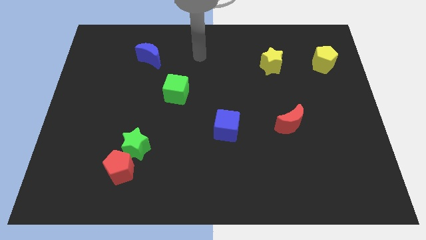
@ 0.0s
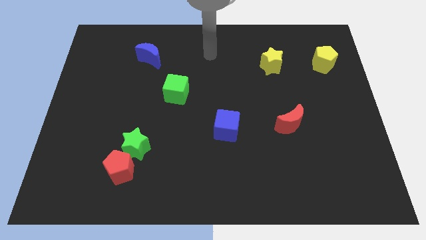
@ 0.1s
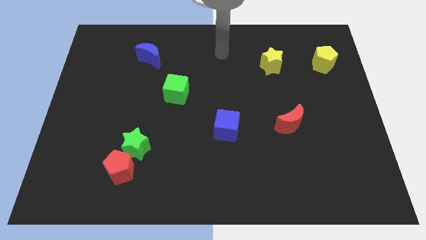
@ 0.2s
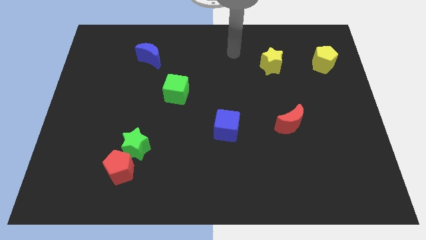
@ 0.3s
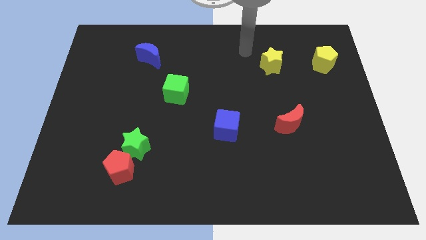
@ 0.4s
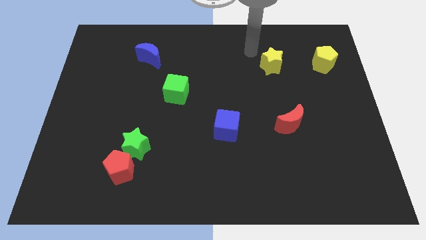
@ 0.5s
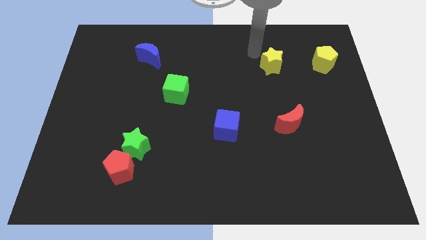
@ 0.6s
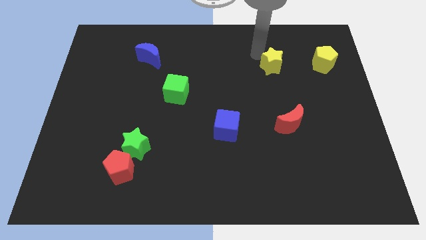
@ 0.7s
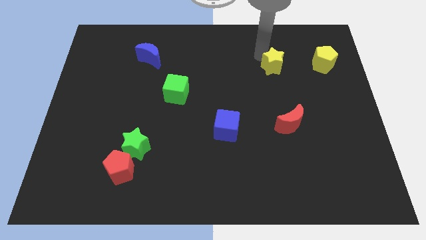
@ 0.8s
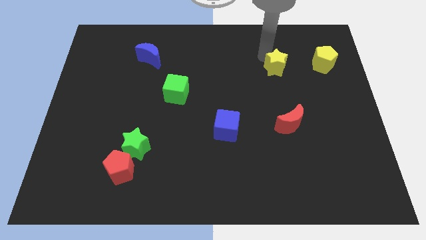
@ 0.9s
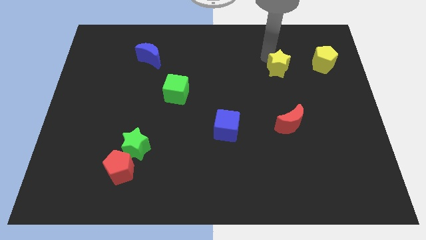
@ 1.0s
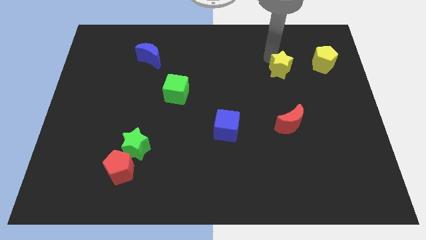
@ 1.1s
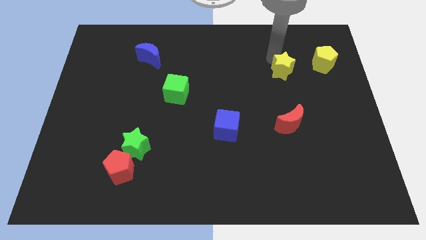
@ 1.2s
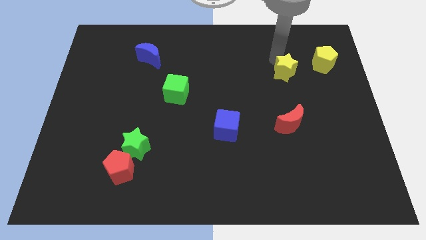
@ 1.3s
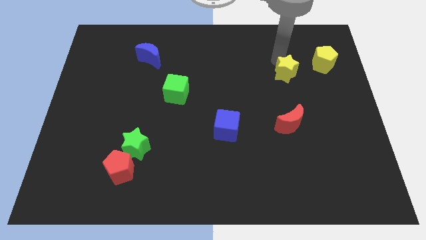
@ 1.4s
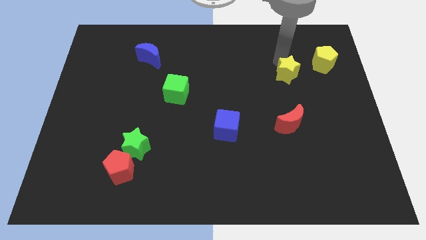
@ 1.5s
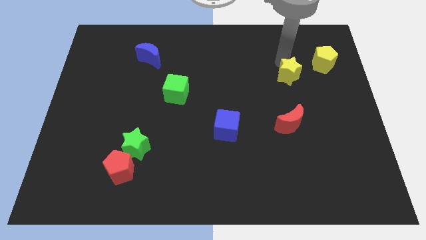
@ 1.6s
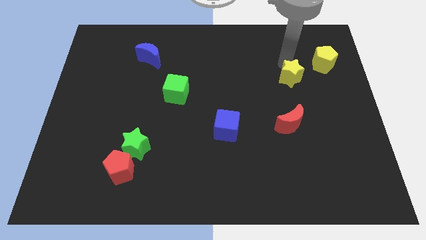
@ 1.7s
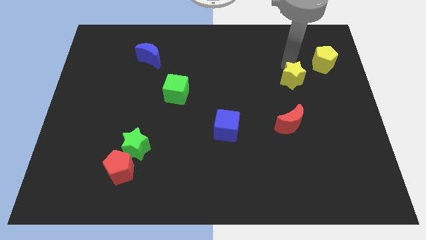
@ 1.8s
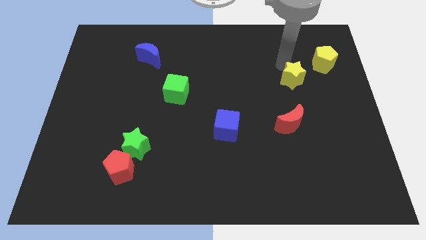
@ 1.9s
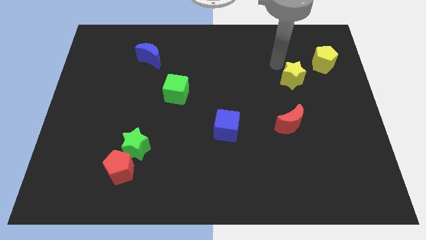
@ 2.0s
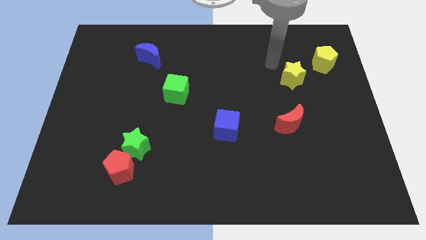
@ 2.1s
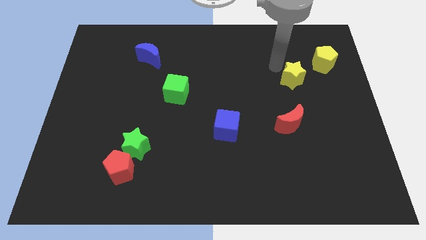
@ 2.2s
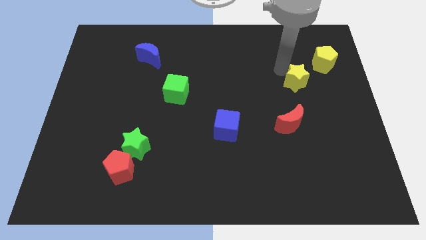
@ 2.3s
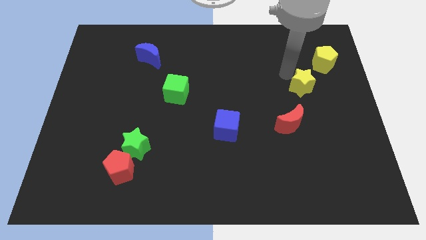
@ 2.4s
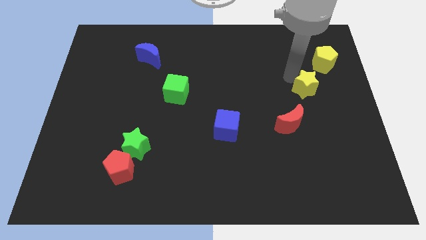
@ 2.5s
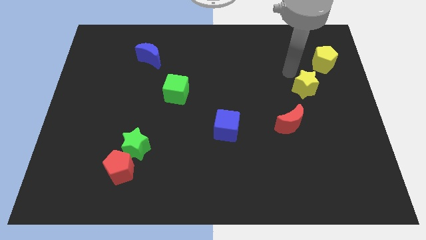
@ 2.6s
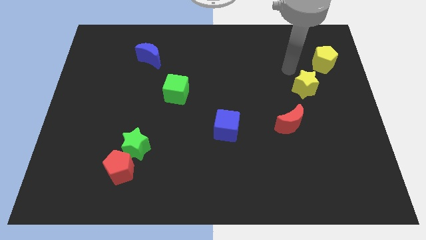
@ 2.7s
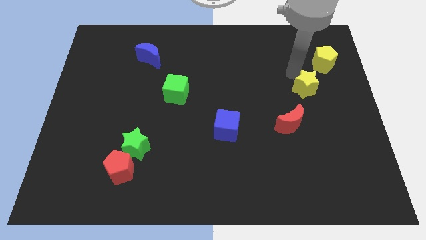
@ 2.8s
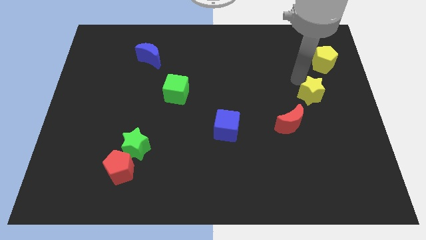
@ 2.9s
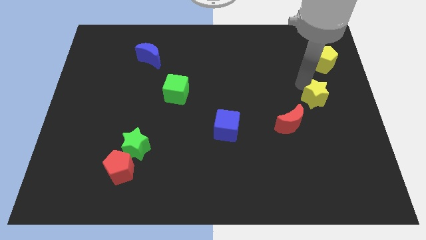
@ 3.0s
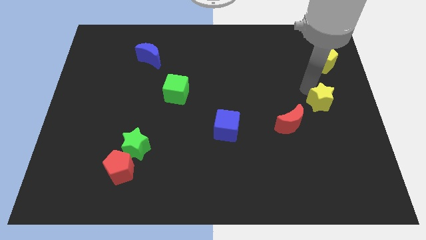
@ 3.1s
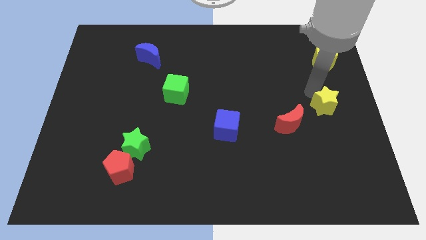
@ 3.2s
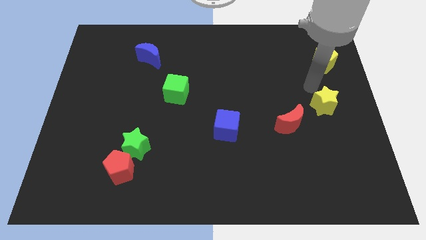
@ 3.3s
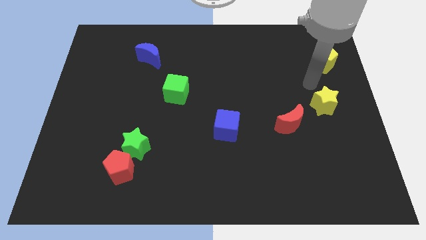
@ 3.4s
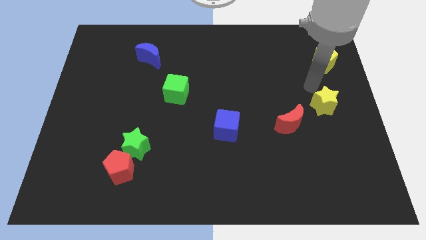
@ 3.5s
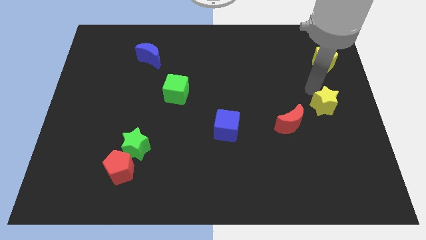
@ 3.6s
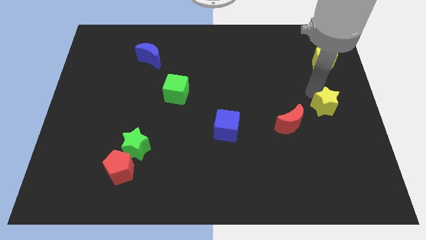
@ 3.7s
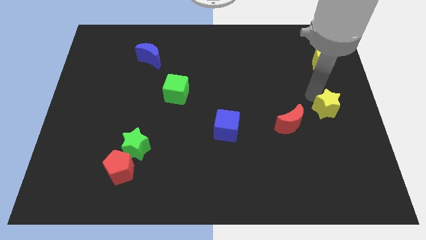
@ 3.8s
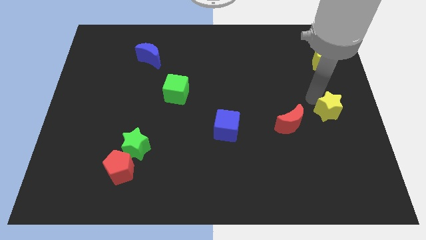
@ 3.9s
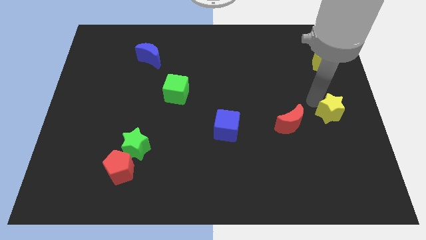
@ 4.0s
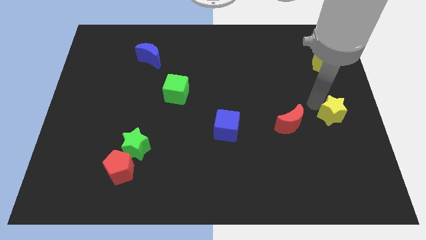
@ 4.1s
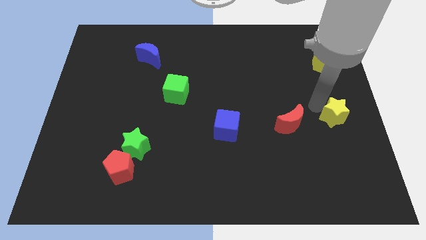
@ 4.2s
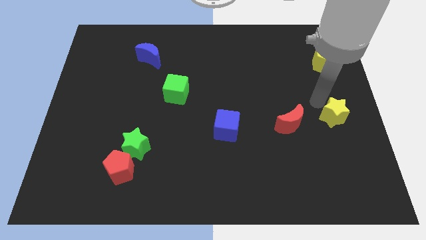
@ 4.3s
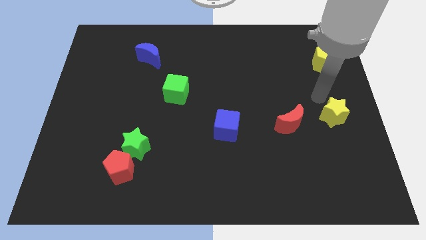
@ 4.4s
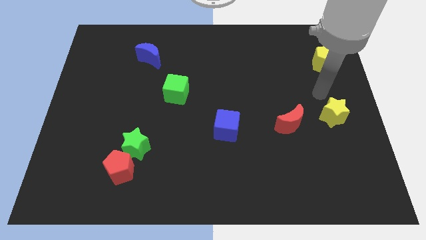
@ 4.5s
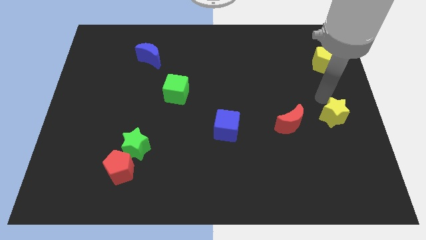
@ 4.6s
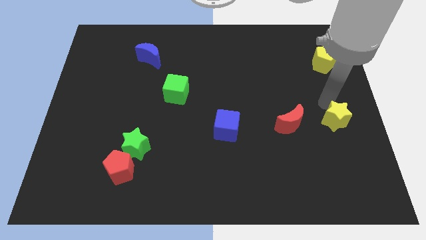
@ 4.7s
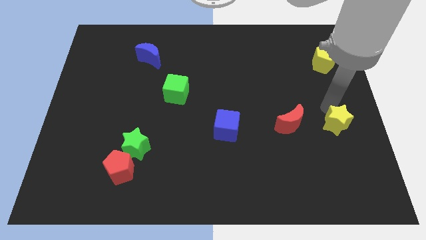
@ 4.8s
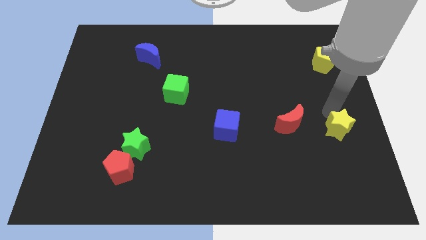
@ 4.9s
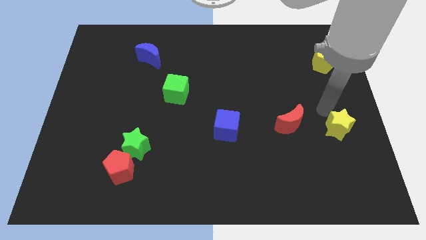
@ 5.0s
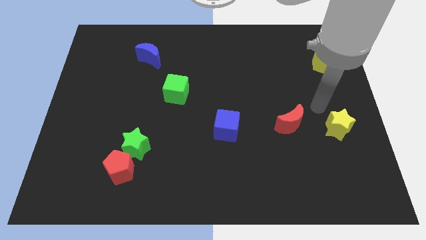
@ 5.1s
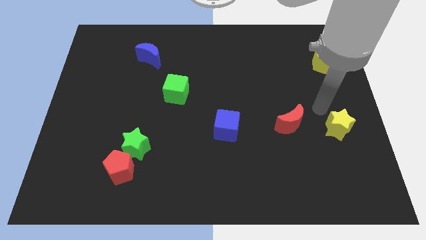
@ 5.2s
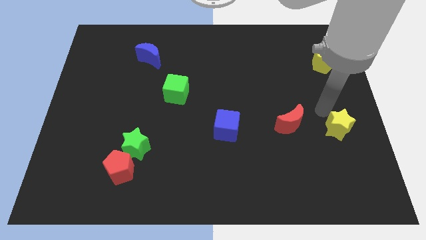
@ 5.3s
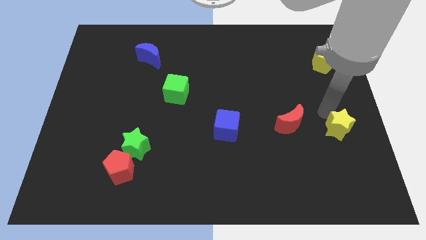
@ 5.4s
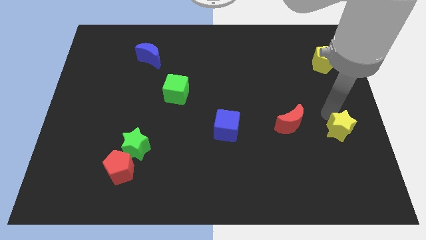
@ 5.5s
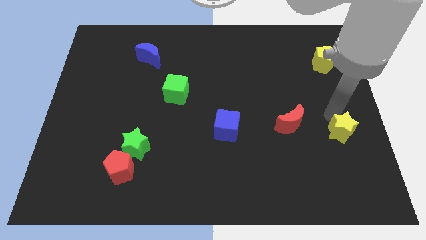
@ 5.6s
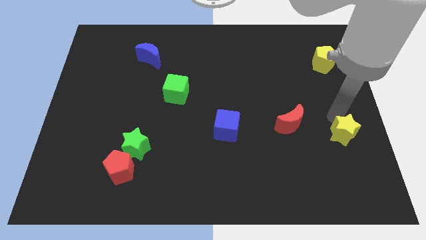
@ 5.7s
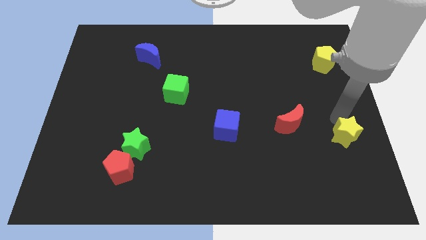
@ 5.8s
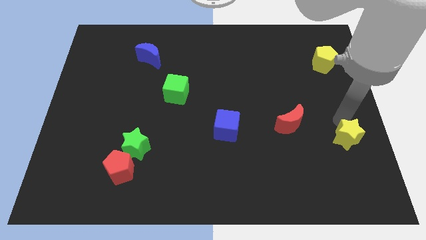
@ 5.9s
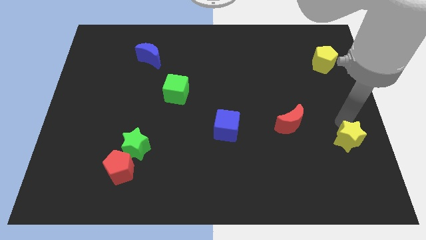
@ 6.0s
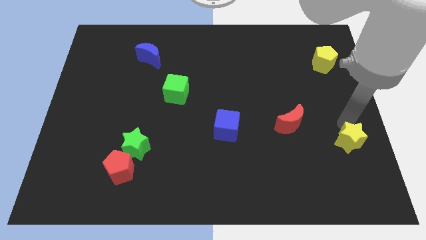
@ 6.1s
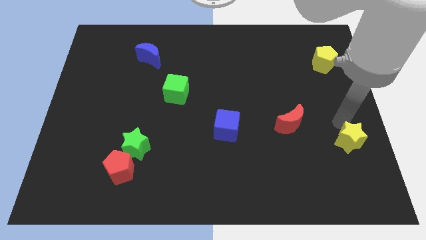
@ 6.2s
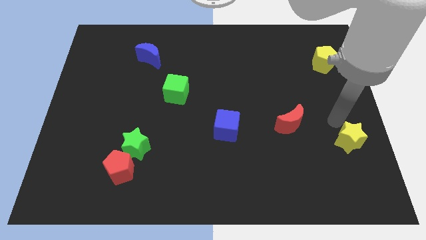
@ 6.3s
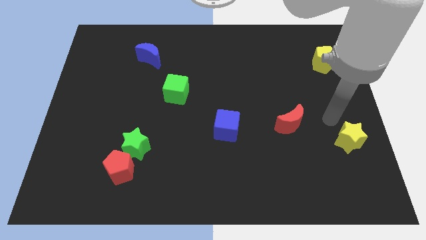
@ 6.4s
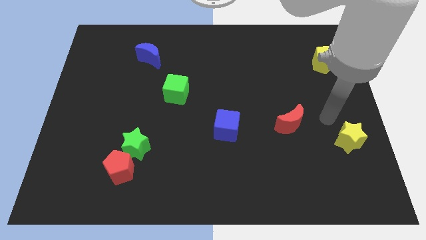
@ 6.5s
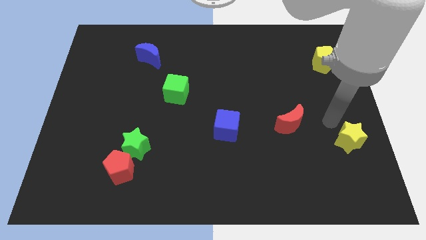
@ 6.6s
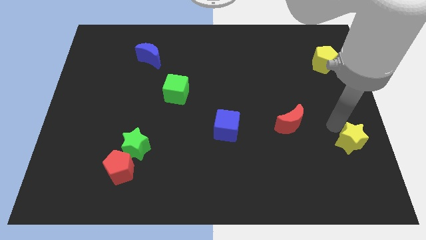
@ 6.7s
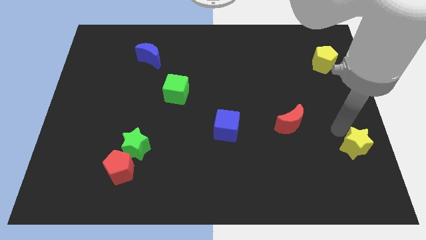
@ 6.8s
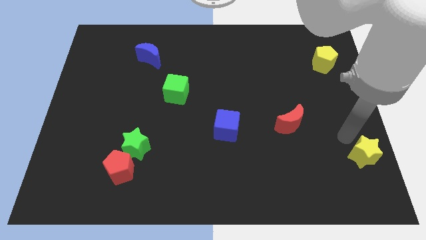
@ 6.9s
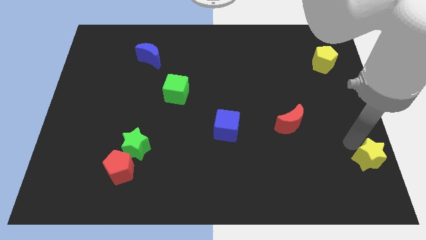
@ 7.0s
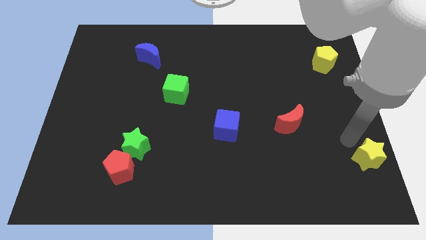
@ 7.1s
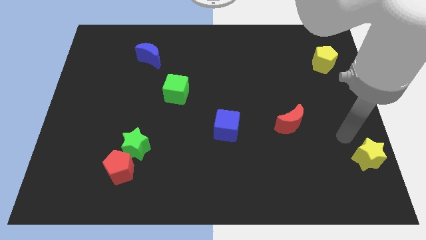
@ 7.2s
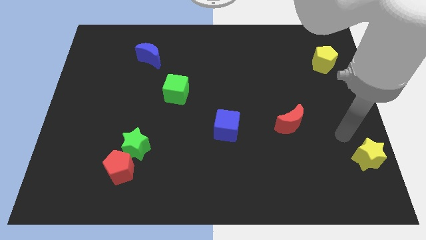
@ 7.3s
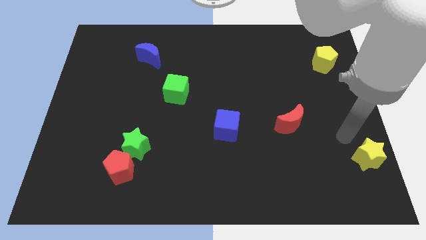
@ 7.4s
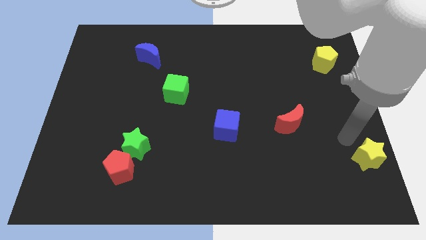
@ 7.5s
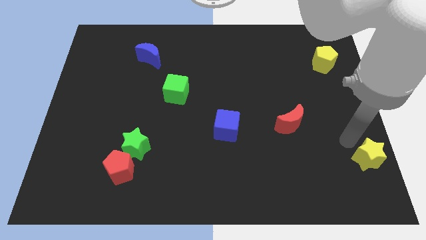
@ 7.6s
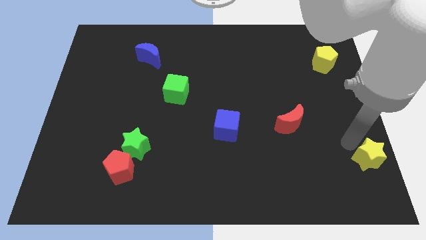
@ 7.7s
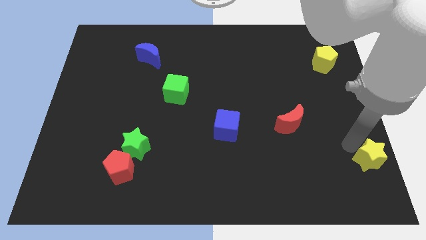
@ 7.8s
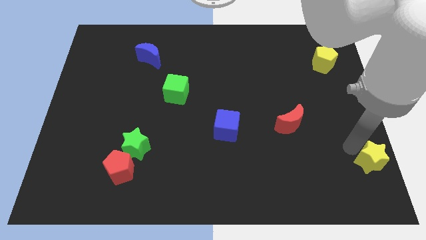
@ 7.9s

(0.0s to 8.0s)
put the yellow star to the lower right corner
